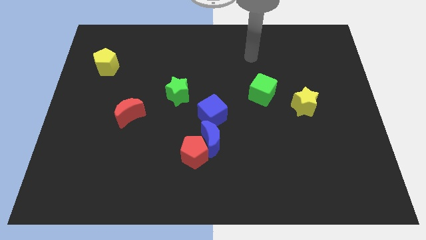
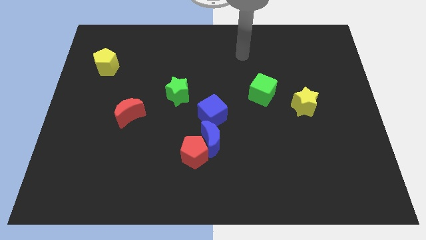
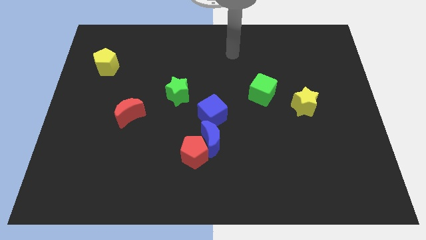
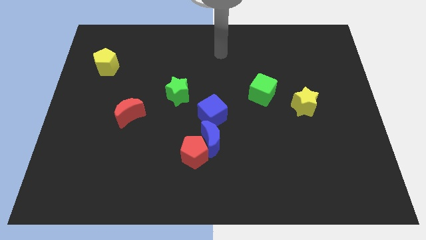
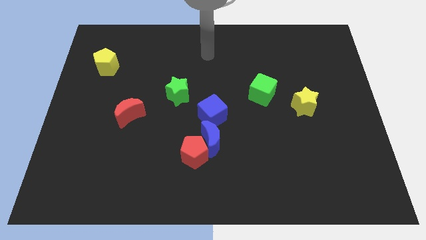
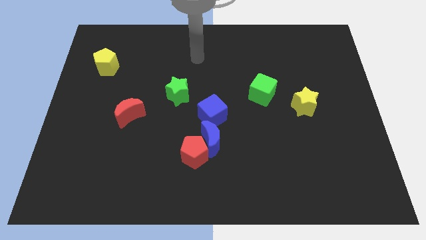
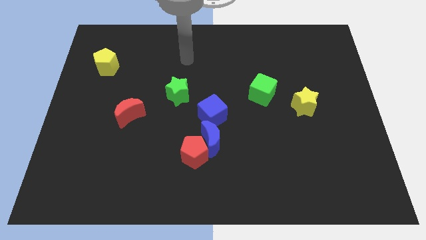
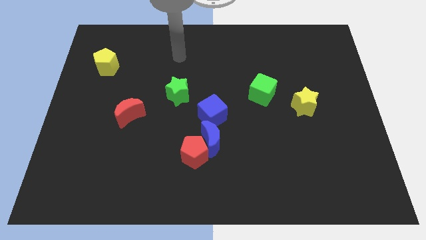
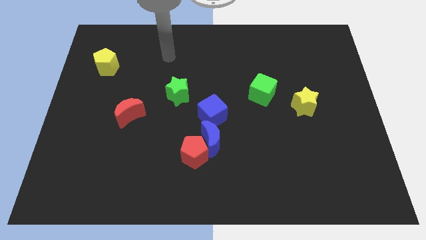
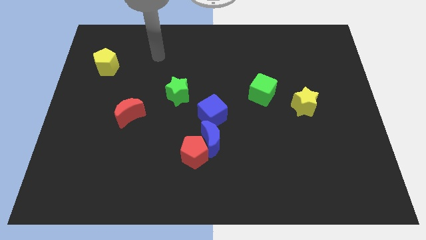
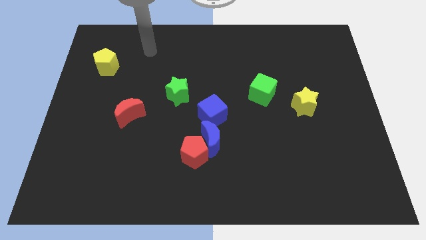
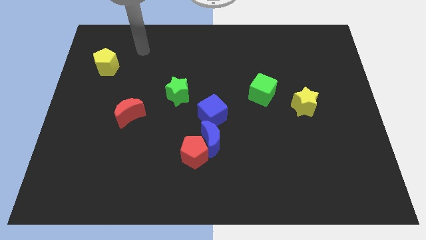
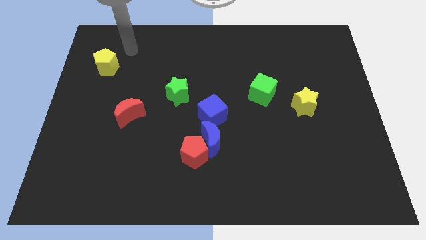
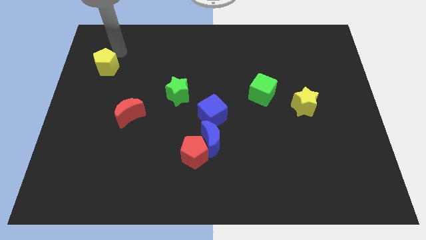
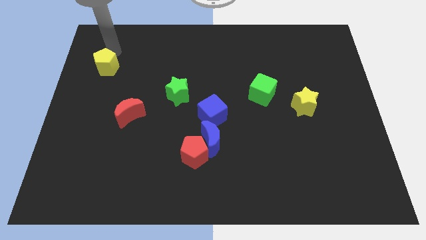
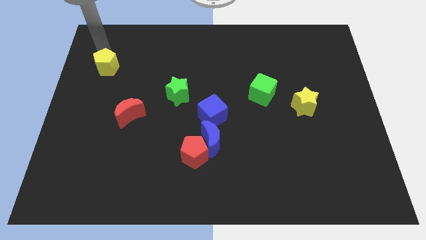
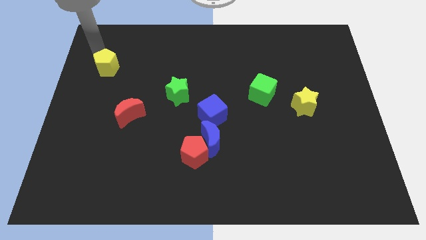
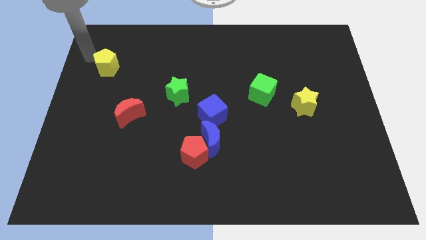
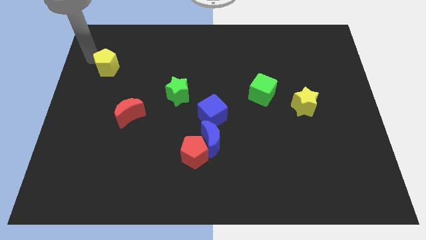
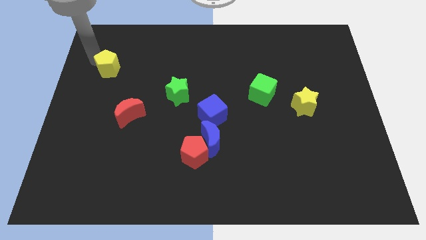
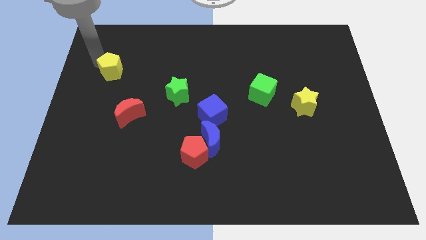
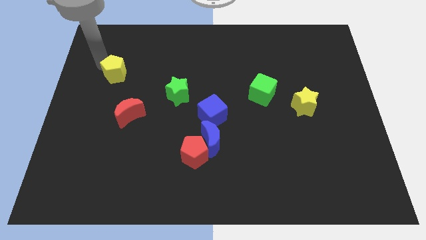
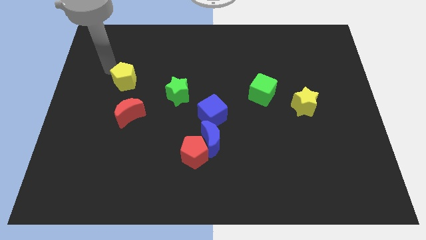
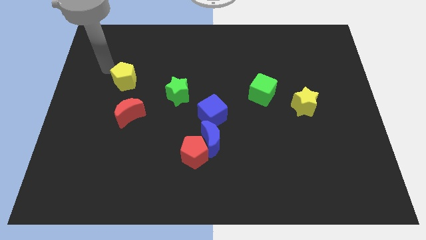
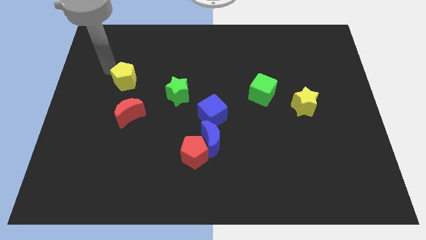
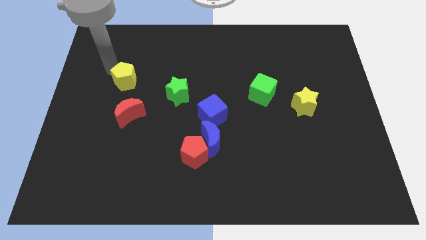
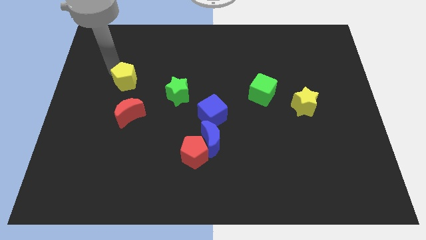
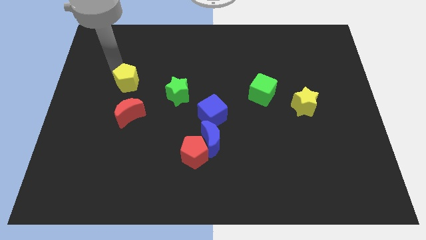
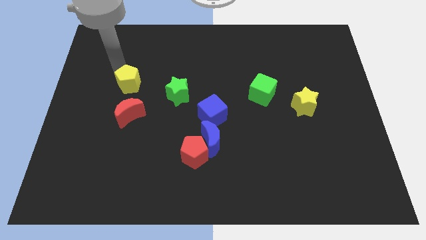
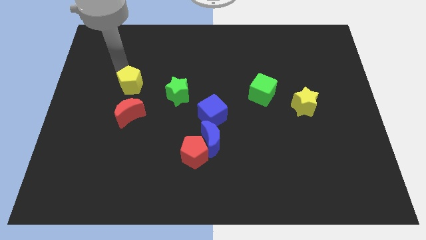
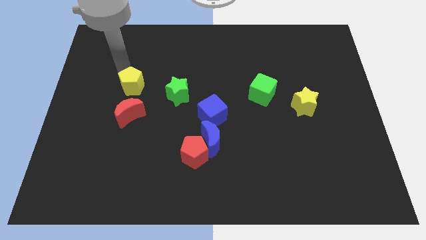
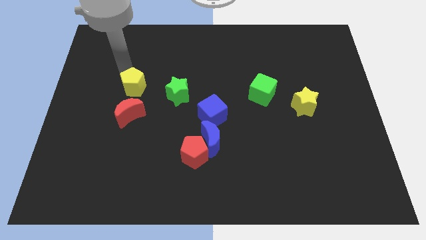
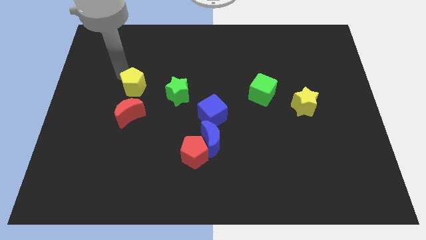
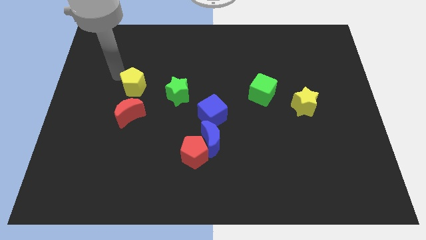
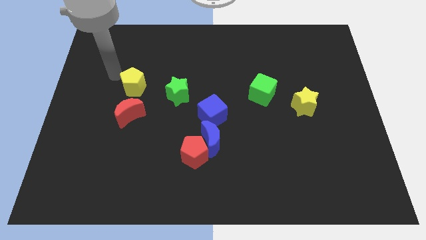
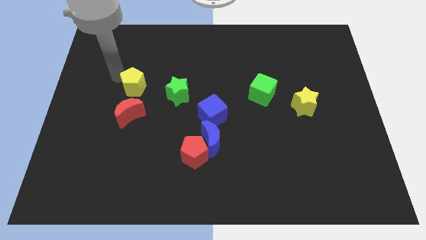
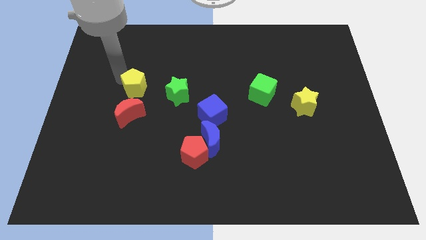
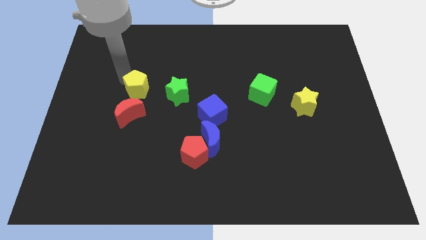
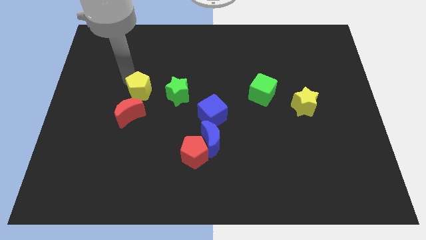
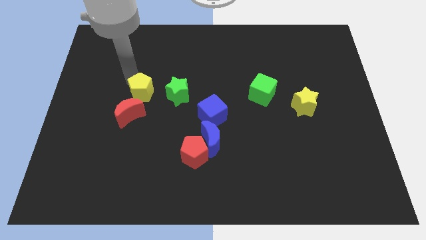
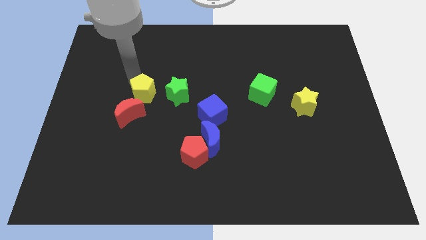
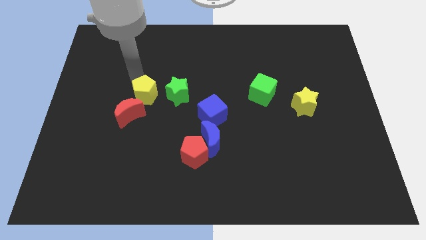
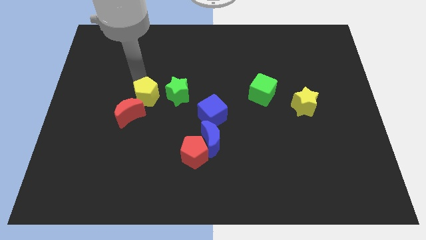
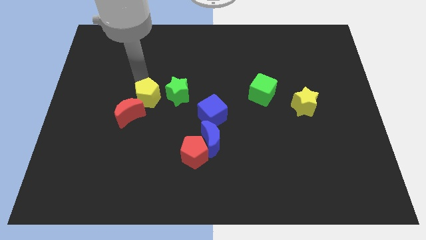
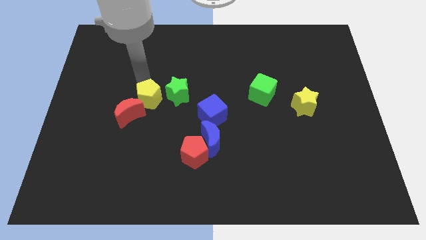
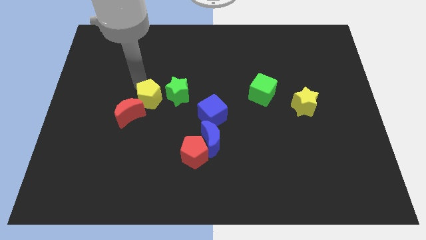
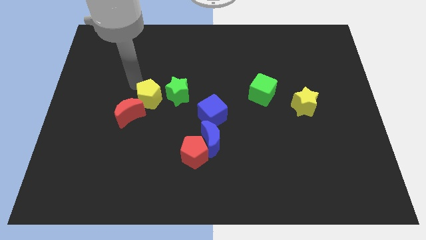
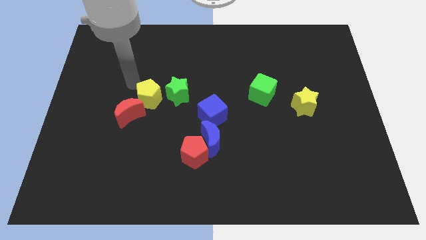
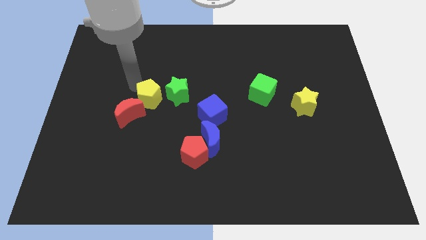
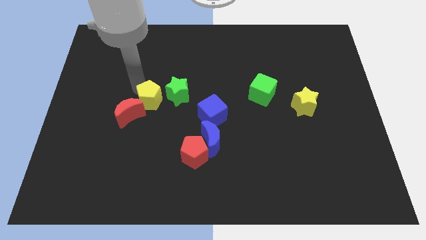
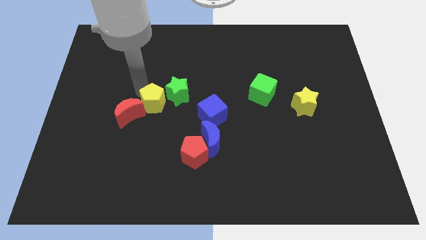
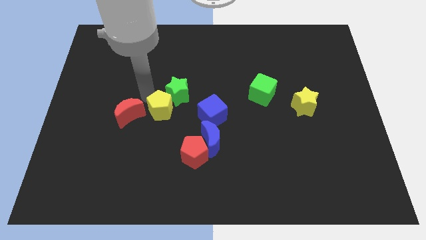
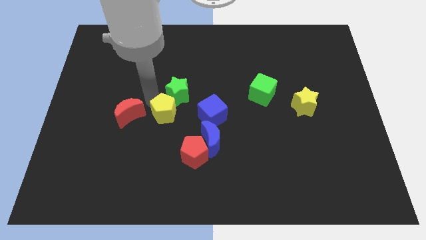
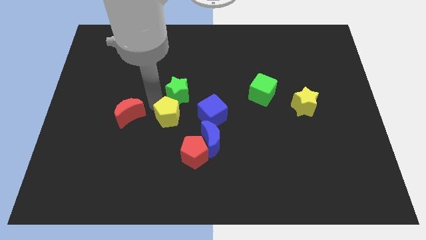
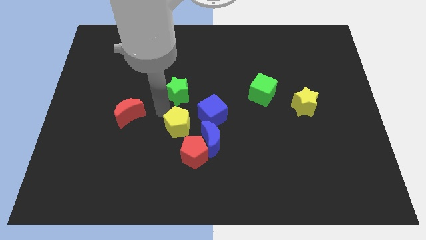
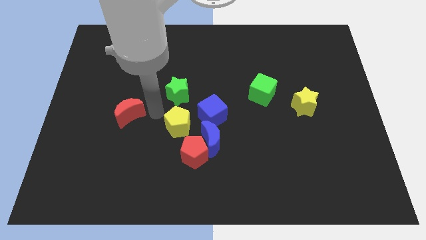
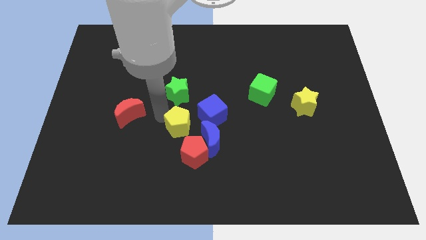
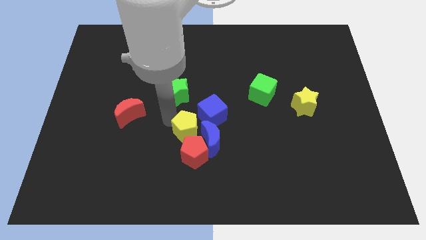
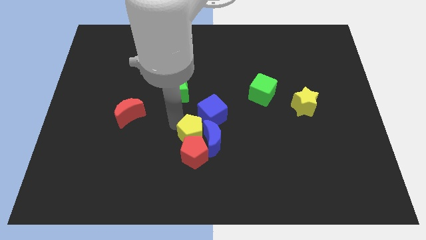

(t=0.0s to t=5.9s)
slide the yellow pentagon close to the blue moon

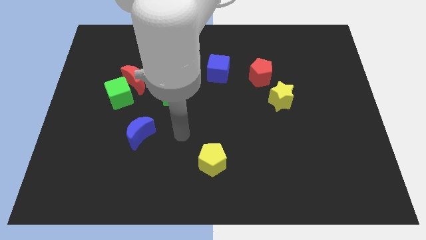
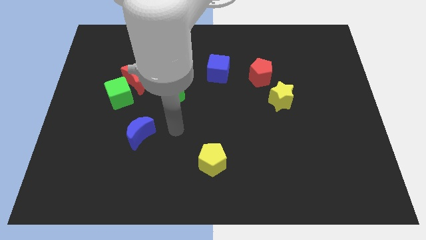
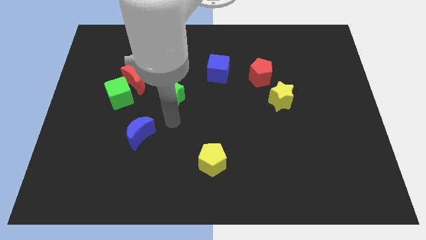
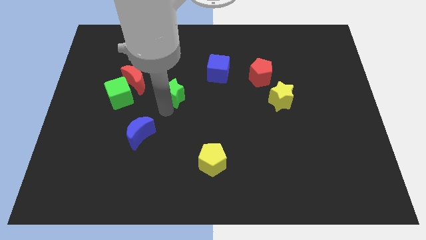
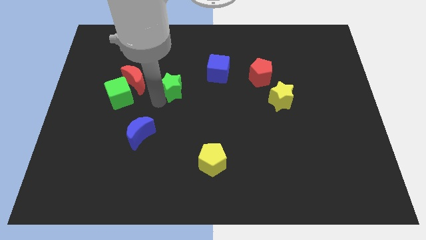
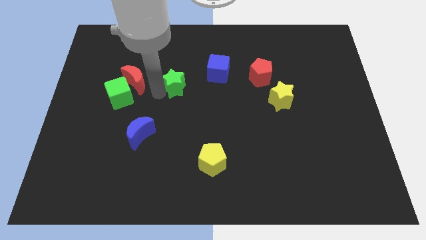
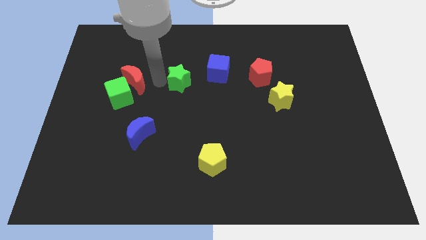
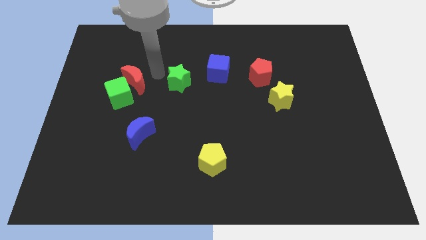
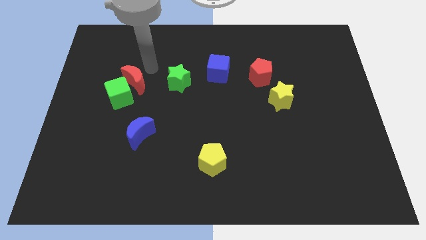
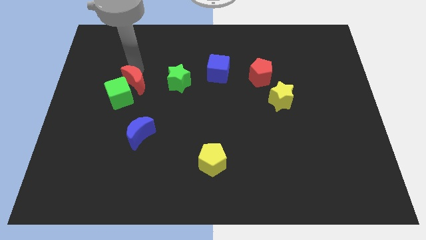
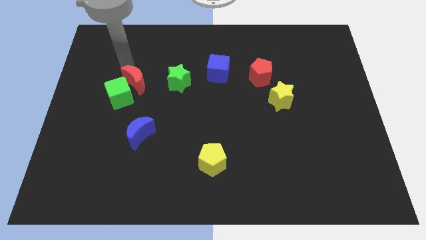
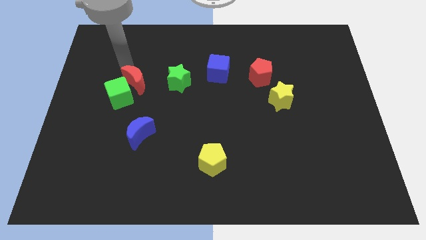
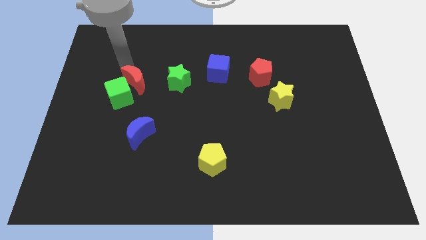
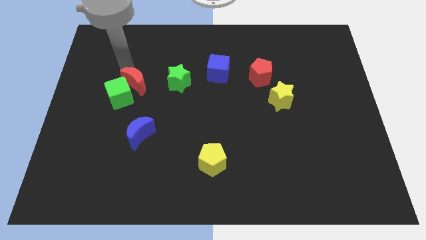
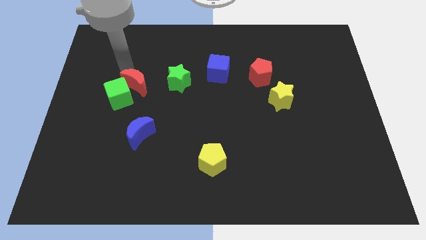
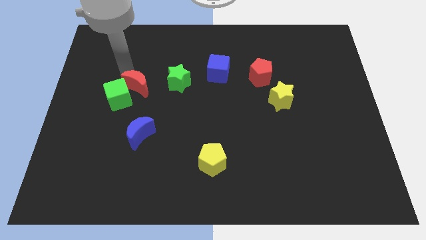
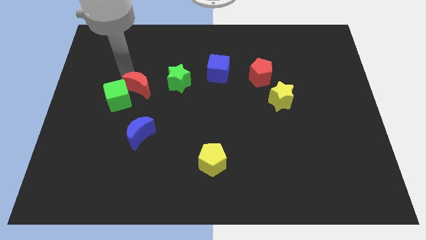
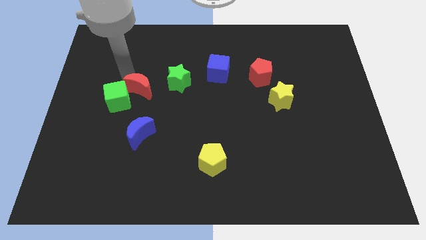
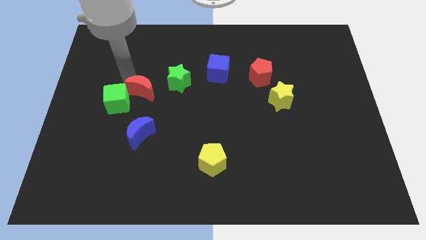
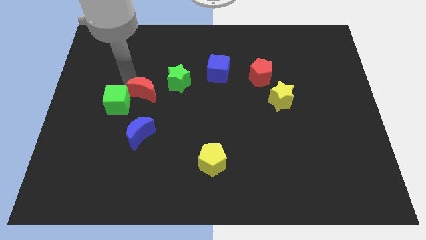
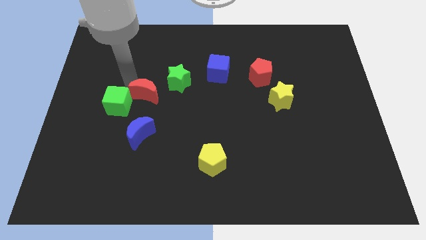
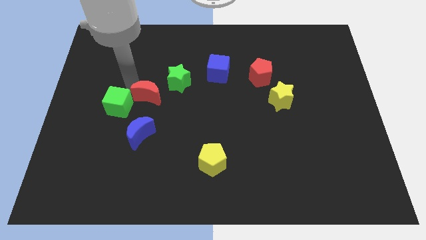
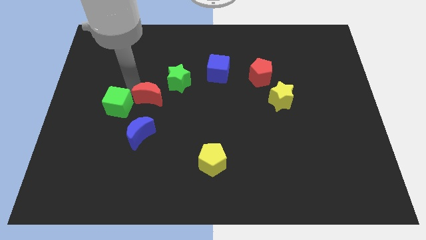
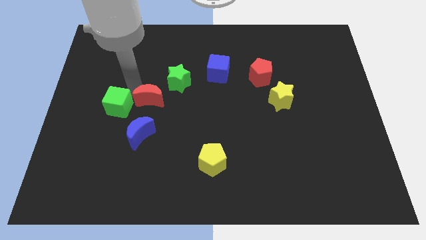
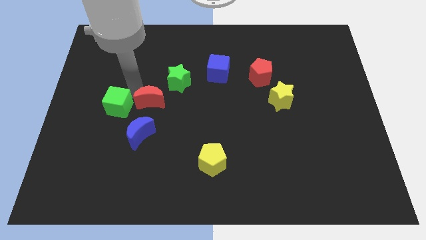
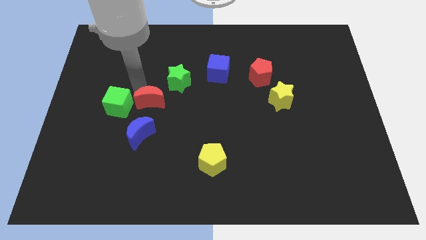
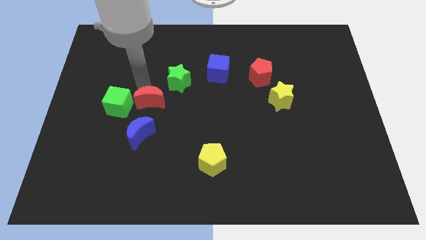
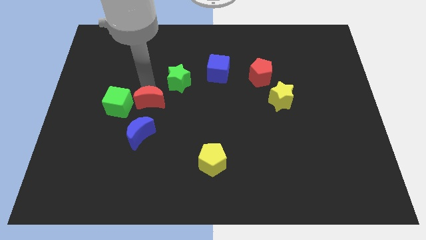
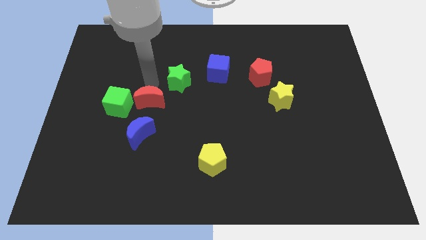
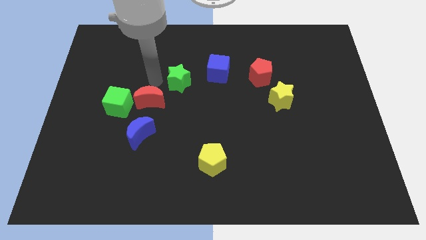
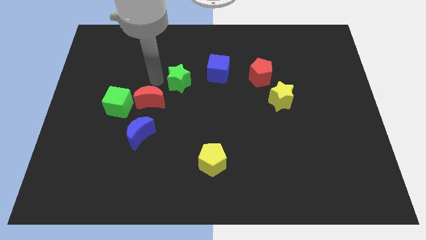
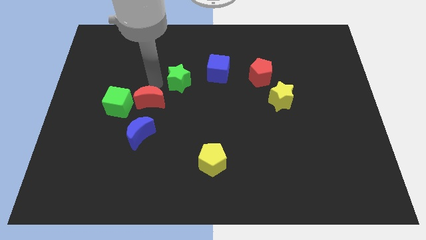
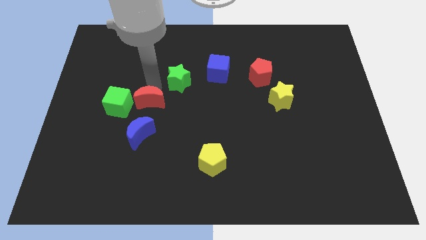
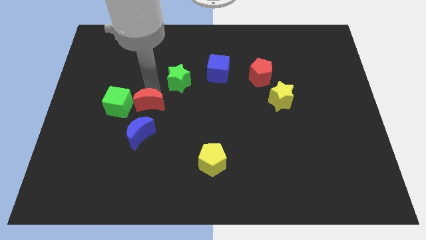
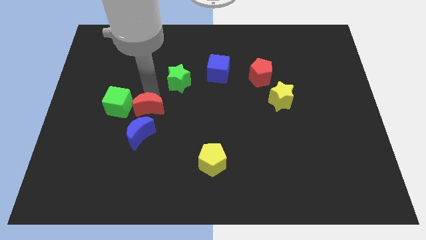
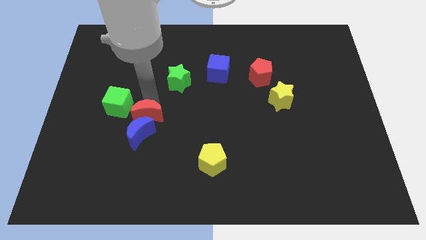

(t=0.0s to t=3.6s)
move the red moon to the blue moon
